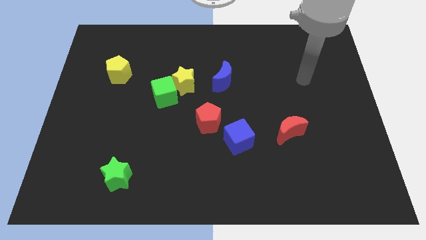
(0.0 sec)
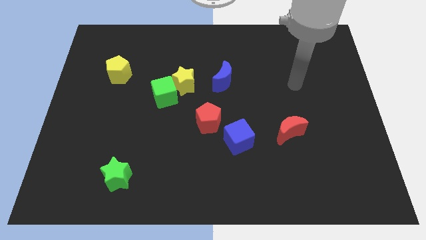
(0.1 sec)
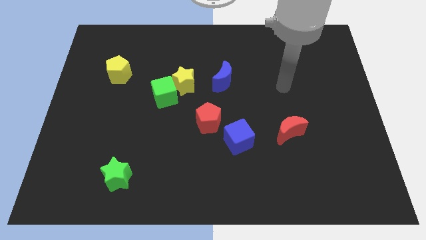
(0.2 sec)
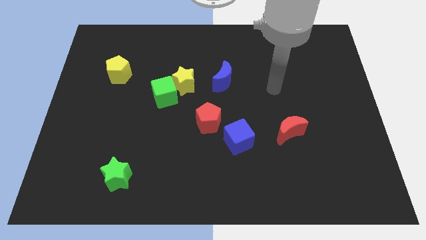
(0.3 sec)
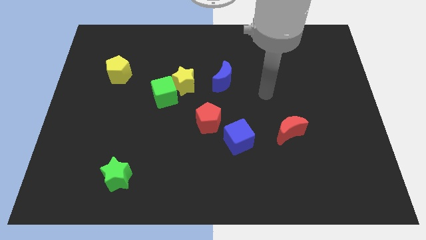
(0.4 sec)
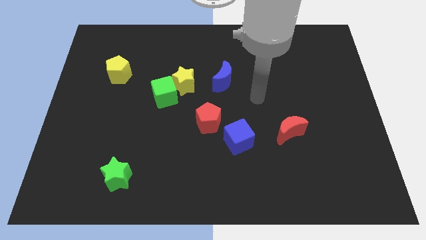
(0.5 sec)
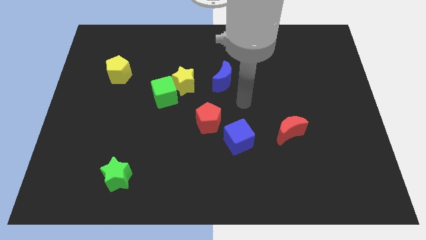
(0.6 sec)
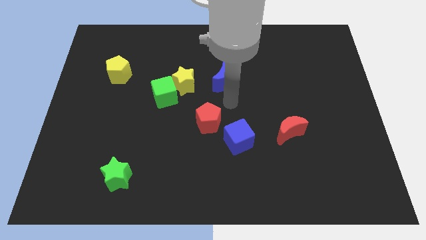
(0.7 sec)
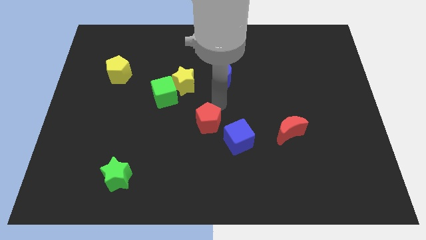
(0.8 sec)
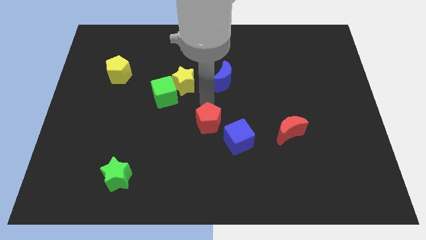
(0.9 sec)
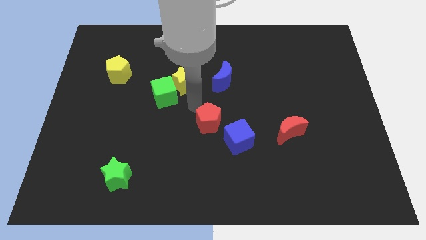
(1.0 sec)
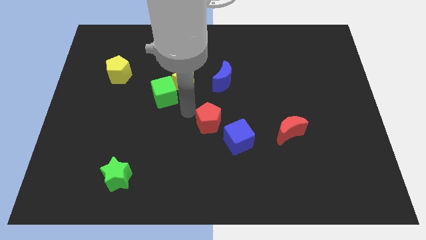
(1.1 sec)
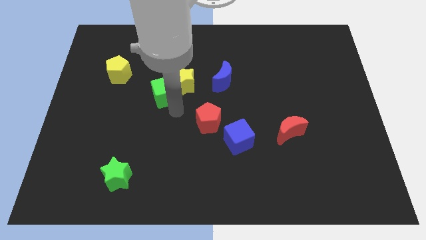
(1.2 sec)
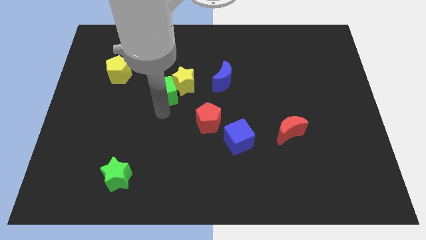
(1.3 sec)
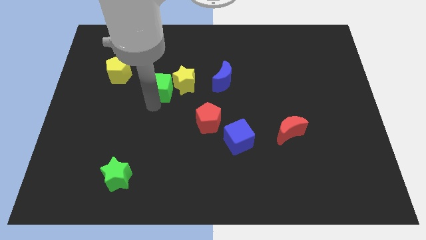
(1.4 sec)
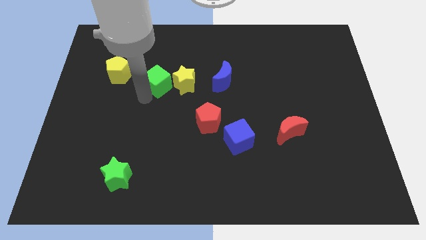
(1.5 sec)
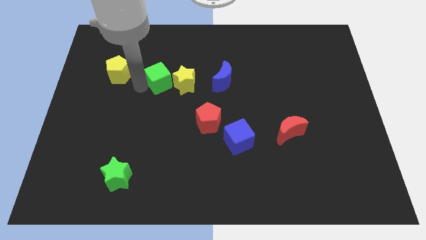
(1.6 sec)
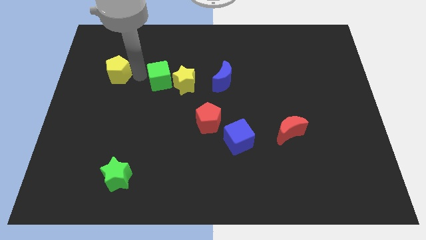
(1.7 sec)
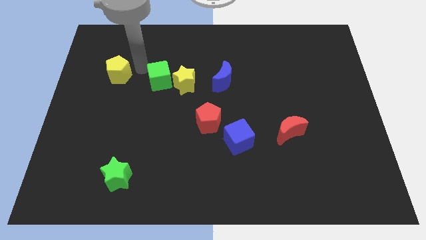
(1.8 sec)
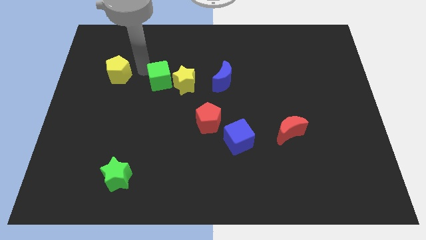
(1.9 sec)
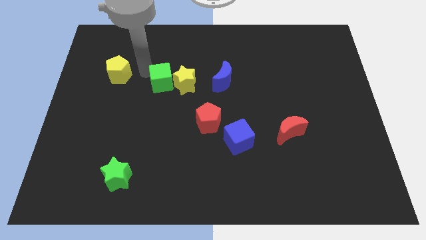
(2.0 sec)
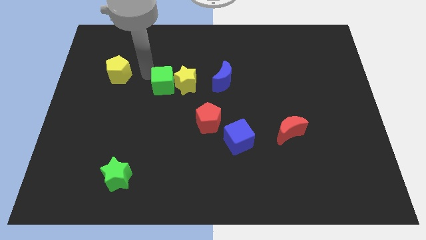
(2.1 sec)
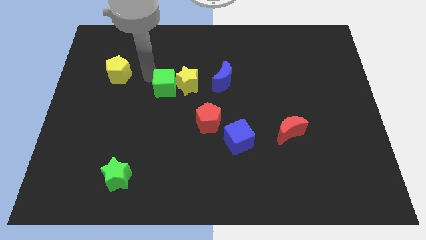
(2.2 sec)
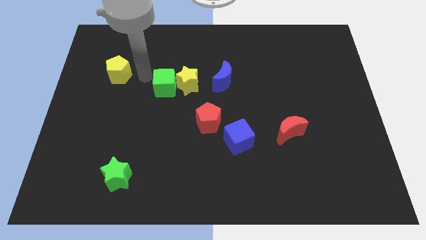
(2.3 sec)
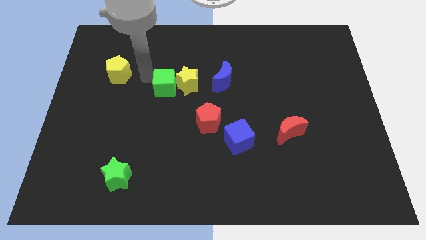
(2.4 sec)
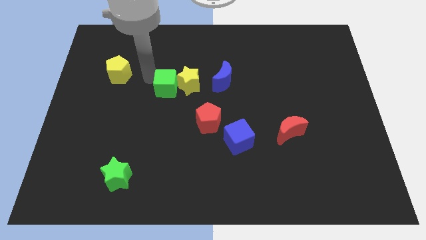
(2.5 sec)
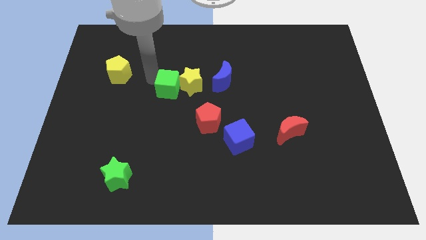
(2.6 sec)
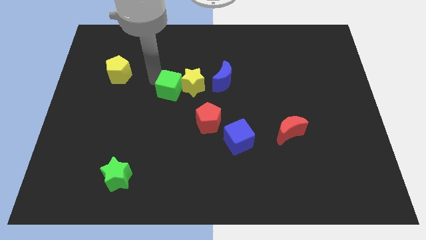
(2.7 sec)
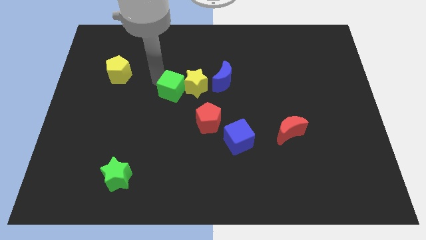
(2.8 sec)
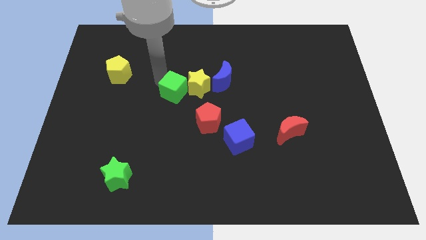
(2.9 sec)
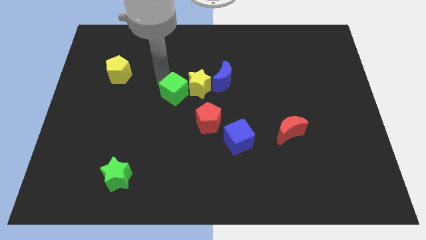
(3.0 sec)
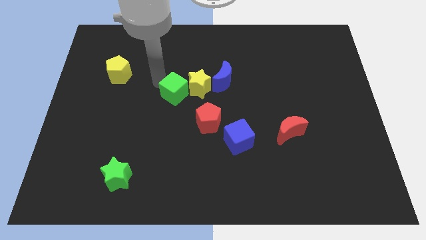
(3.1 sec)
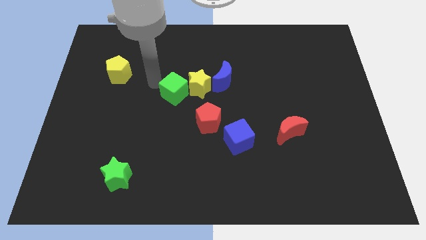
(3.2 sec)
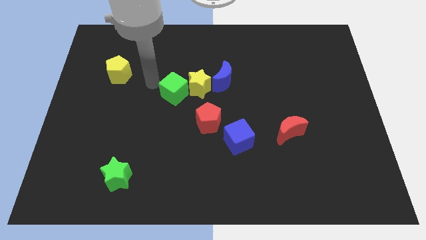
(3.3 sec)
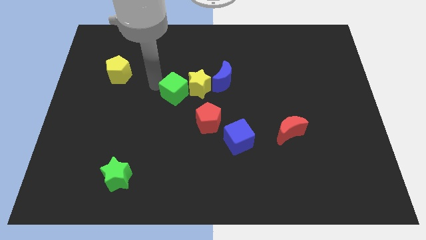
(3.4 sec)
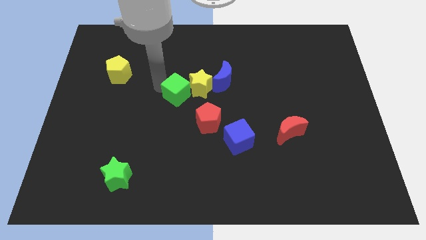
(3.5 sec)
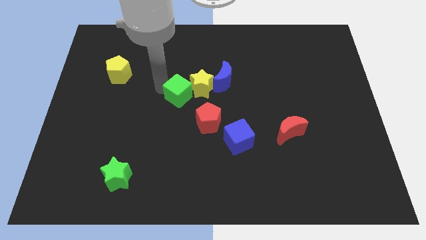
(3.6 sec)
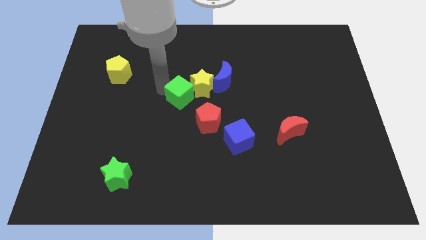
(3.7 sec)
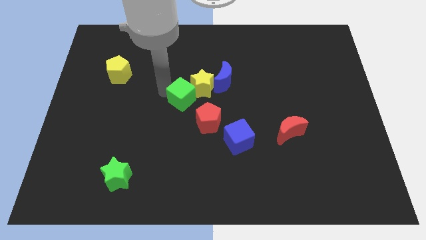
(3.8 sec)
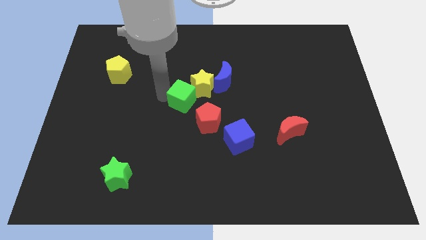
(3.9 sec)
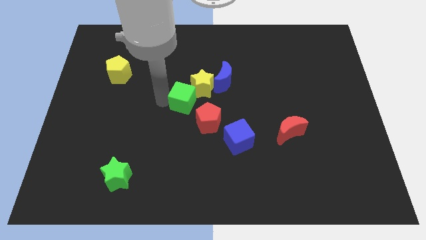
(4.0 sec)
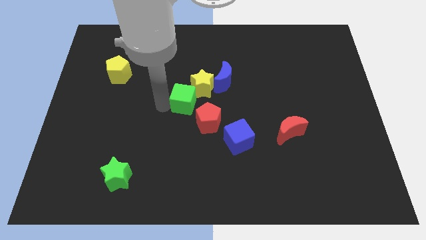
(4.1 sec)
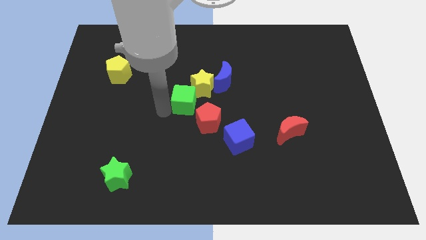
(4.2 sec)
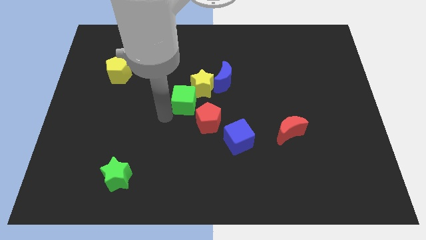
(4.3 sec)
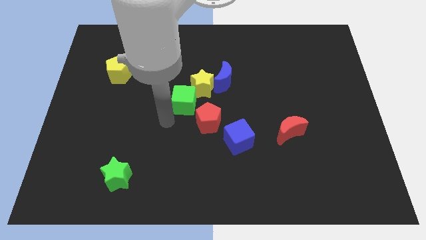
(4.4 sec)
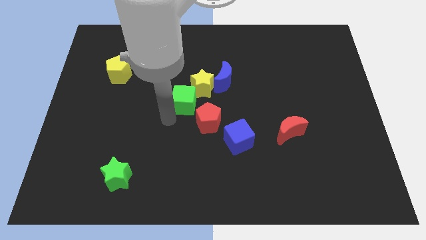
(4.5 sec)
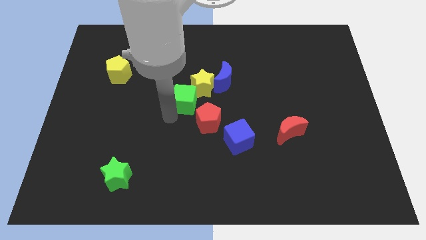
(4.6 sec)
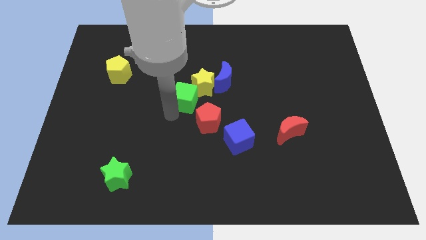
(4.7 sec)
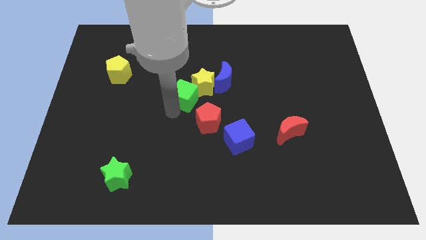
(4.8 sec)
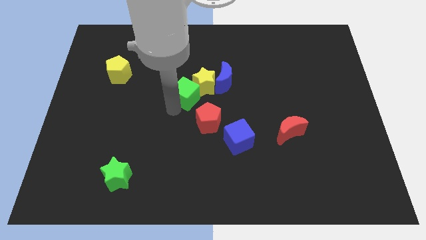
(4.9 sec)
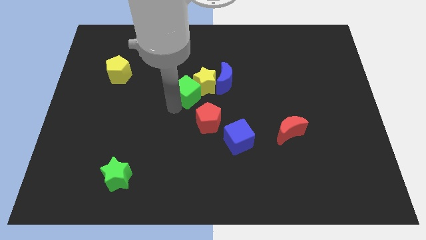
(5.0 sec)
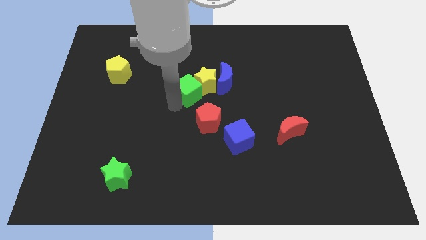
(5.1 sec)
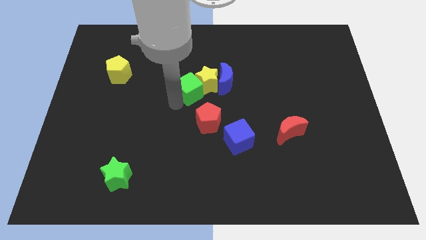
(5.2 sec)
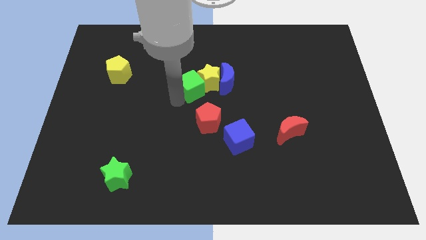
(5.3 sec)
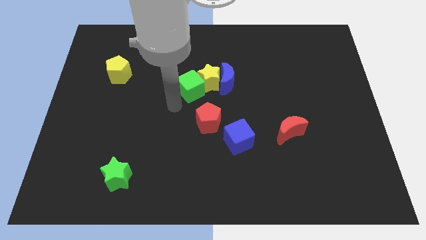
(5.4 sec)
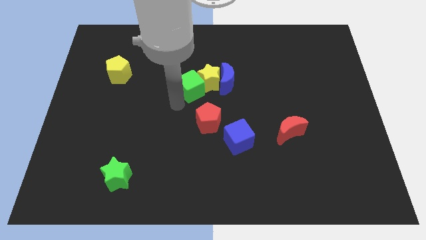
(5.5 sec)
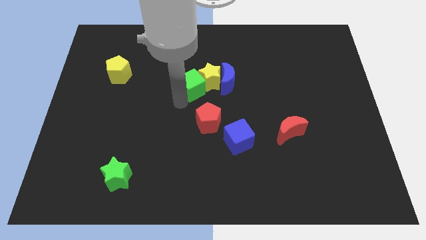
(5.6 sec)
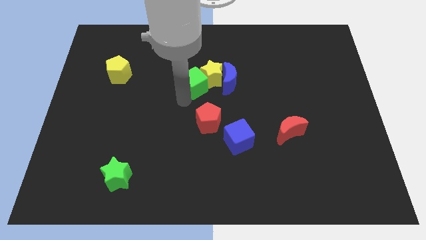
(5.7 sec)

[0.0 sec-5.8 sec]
slide the green cube upwards and right diagonally a little

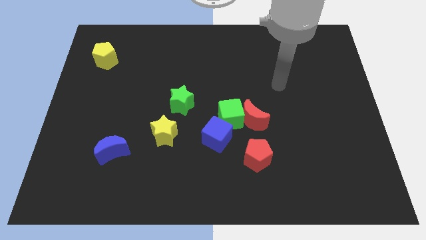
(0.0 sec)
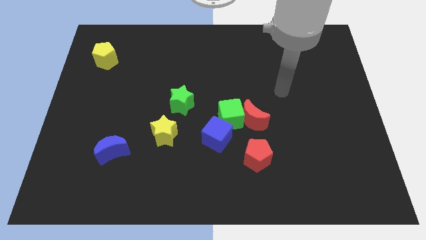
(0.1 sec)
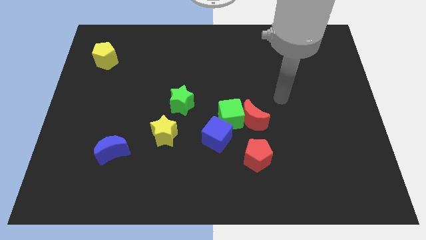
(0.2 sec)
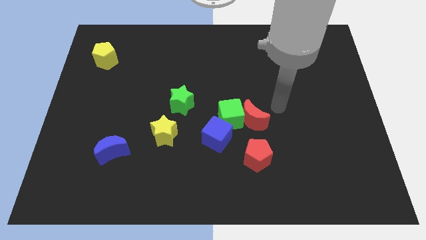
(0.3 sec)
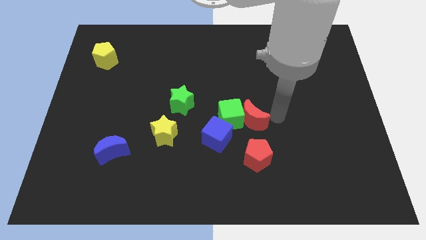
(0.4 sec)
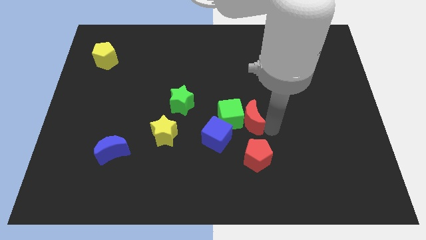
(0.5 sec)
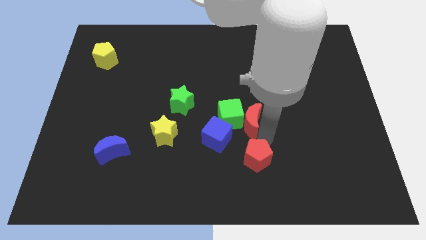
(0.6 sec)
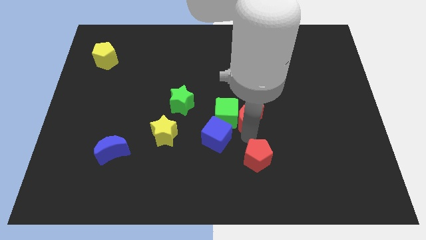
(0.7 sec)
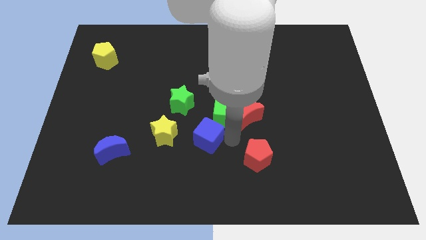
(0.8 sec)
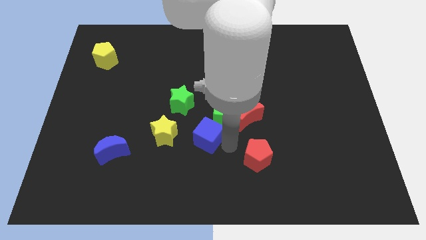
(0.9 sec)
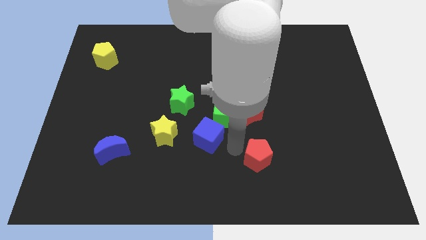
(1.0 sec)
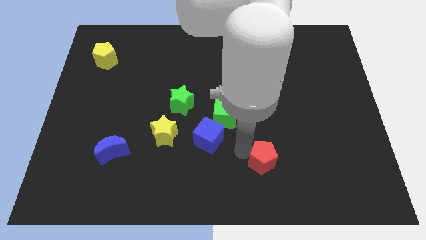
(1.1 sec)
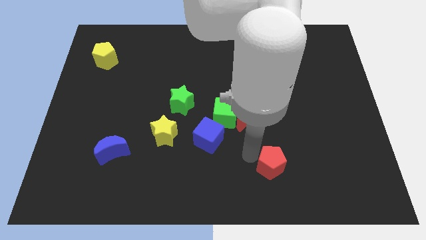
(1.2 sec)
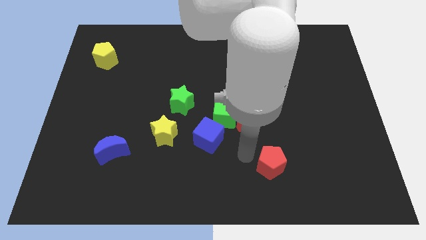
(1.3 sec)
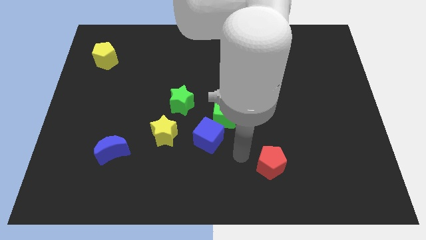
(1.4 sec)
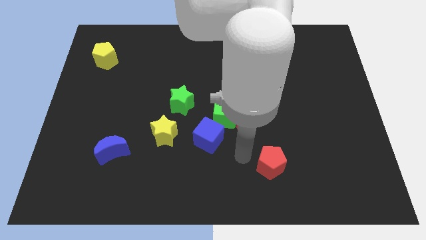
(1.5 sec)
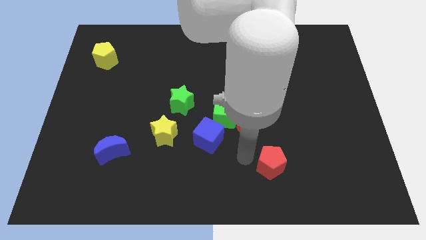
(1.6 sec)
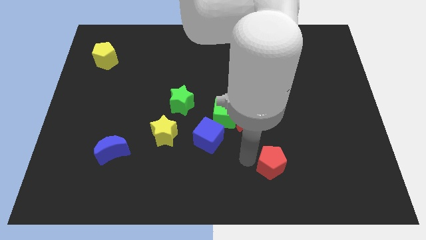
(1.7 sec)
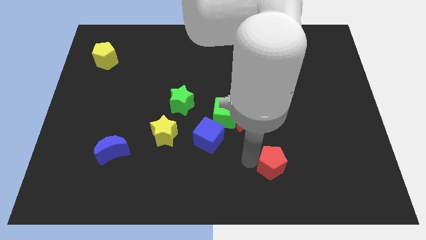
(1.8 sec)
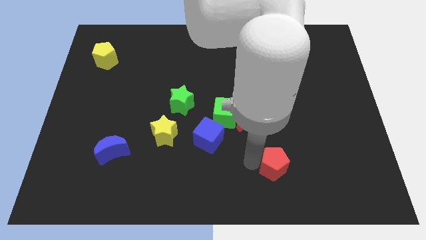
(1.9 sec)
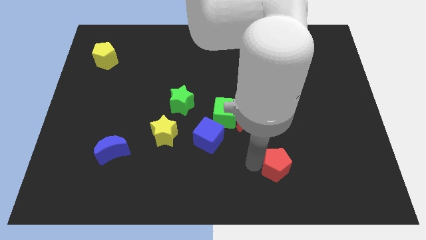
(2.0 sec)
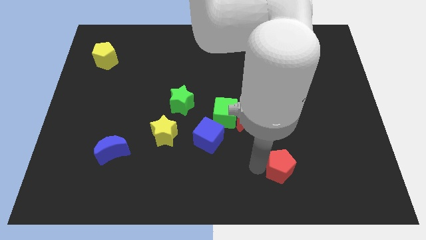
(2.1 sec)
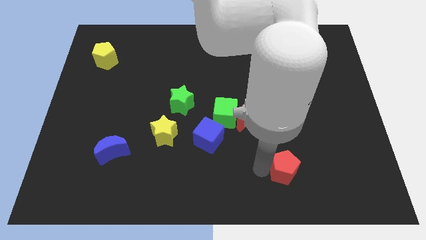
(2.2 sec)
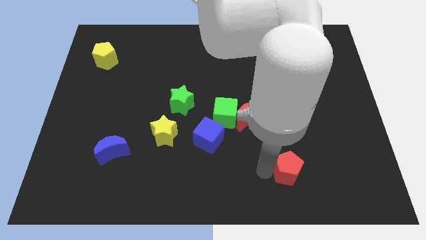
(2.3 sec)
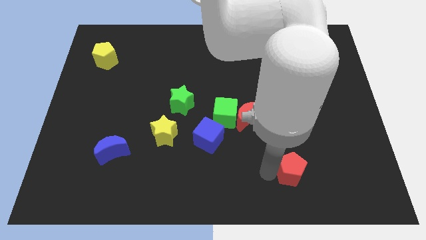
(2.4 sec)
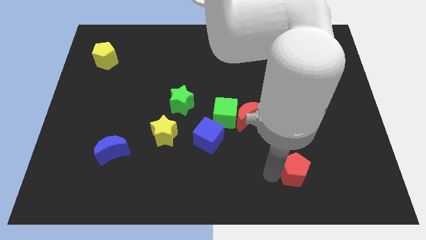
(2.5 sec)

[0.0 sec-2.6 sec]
slide the red pentagon a little bit right
